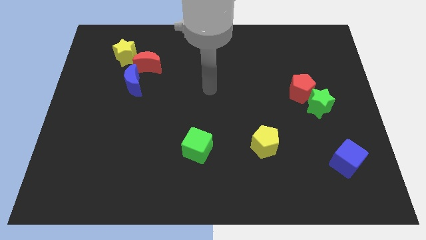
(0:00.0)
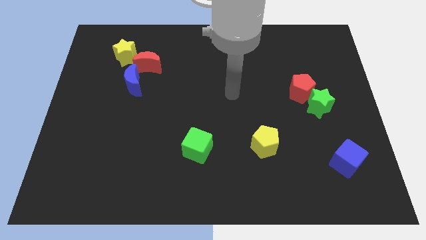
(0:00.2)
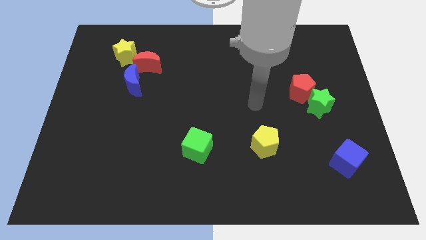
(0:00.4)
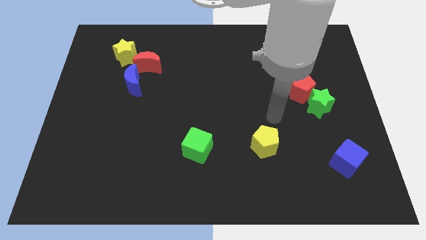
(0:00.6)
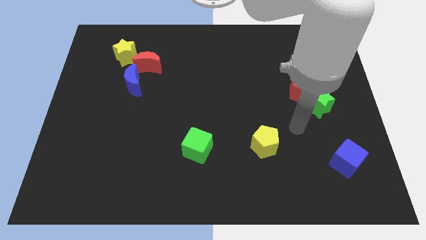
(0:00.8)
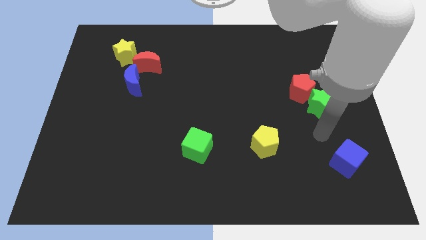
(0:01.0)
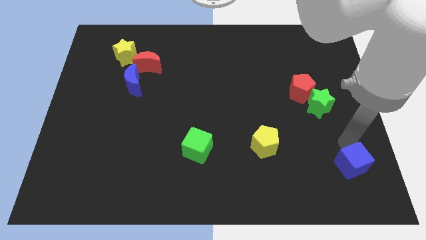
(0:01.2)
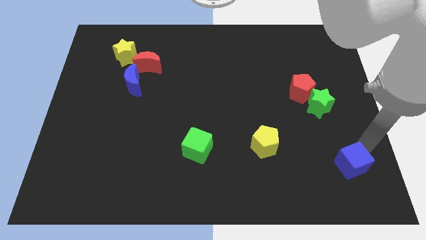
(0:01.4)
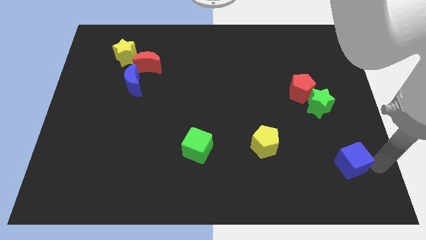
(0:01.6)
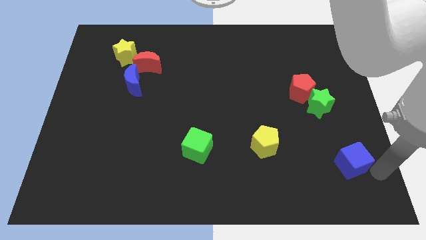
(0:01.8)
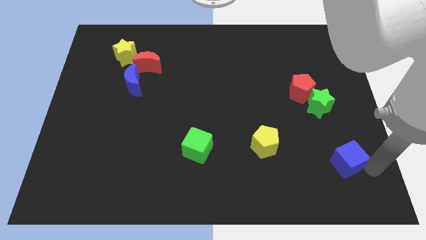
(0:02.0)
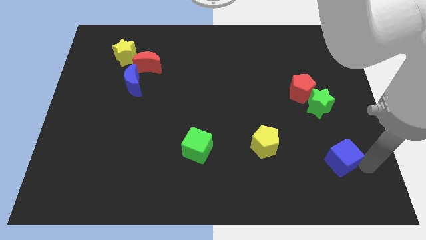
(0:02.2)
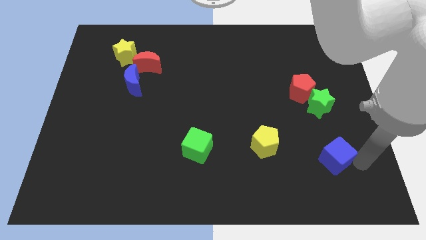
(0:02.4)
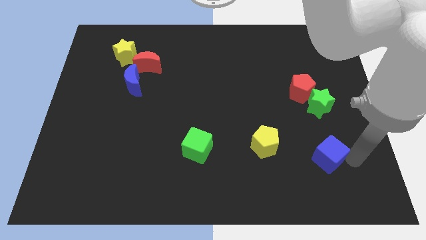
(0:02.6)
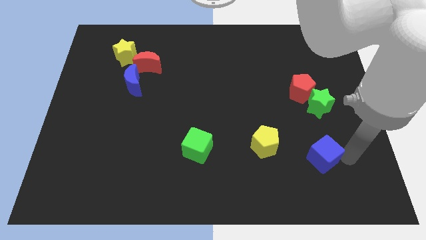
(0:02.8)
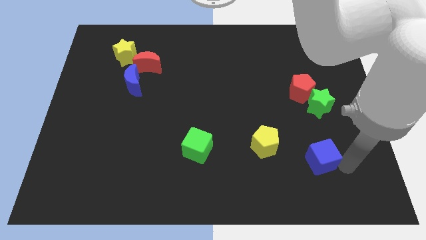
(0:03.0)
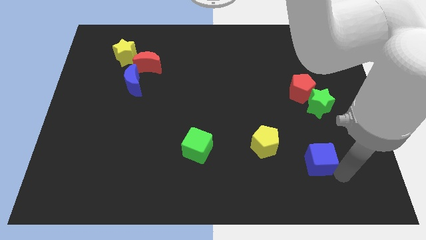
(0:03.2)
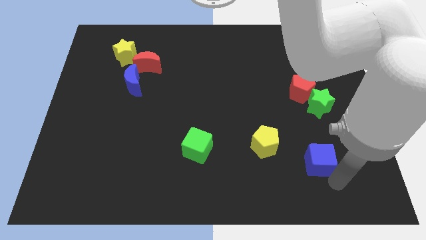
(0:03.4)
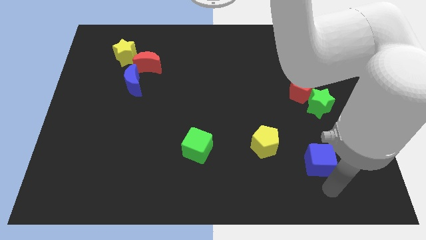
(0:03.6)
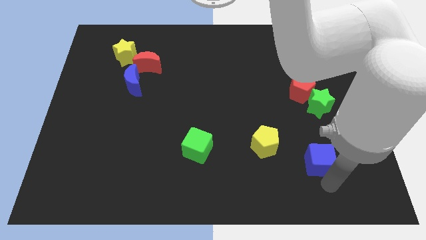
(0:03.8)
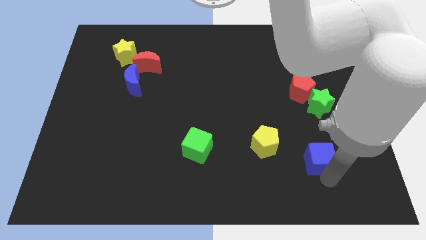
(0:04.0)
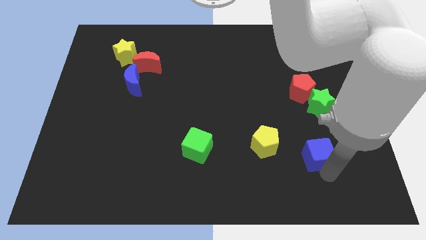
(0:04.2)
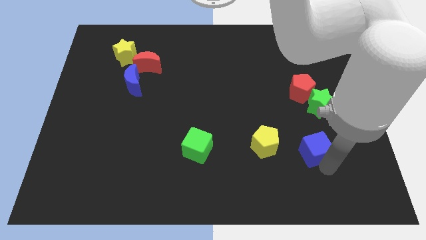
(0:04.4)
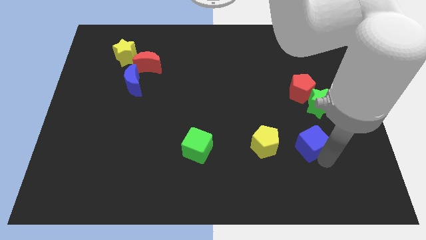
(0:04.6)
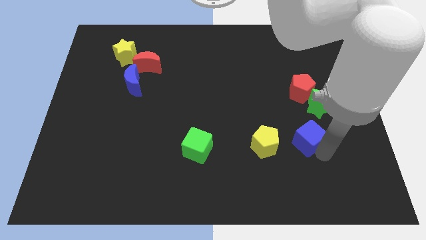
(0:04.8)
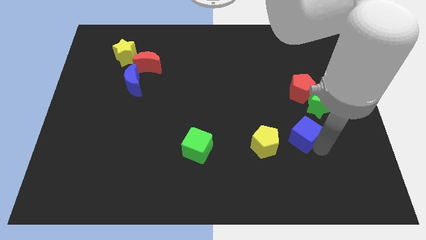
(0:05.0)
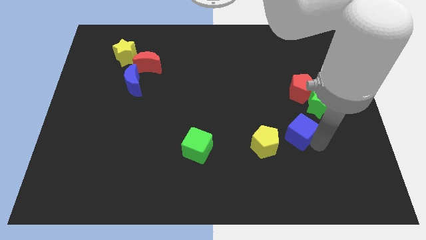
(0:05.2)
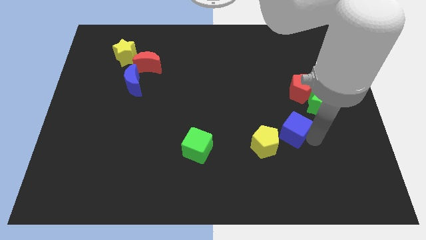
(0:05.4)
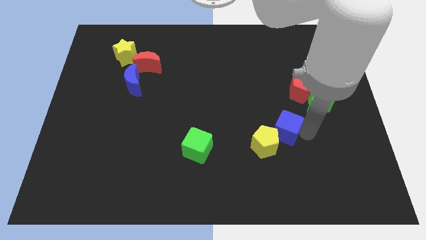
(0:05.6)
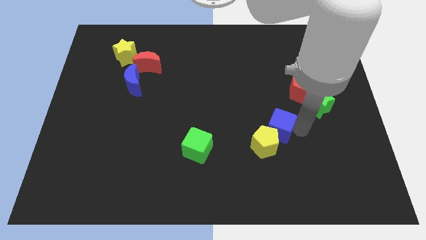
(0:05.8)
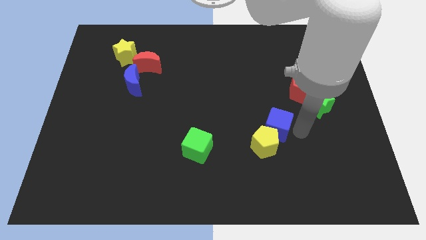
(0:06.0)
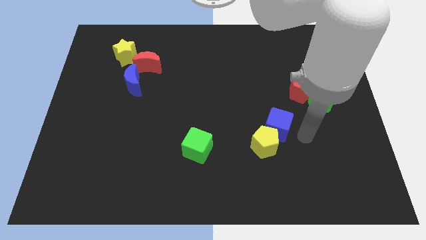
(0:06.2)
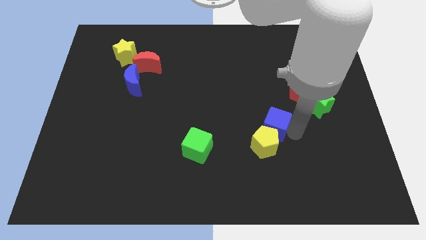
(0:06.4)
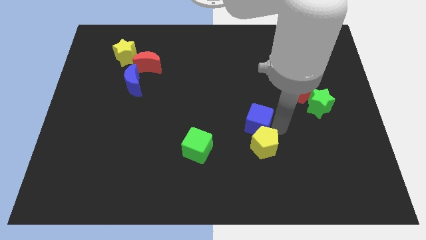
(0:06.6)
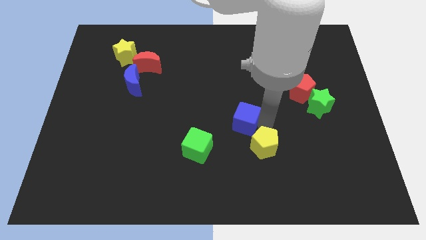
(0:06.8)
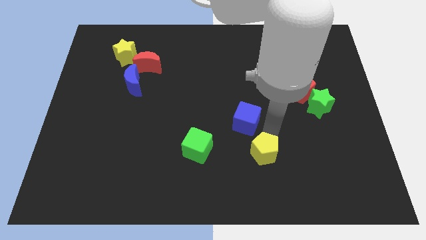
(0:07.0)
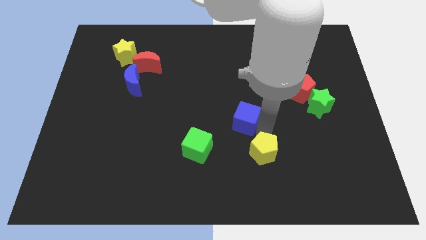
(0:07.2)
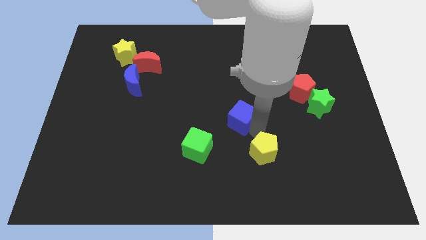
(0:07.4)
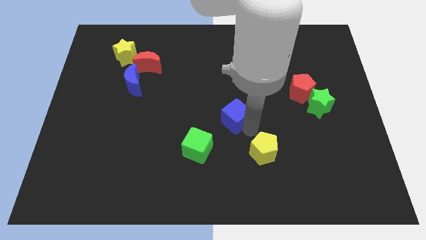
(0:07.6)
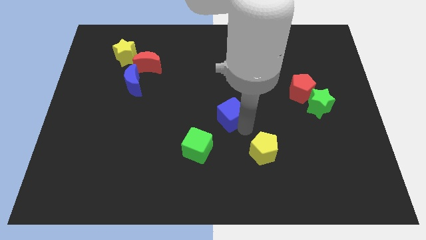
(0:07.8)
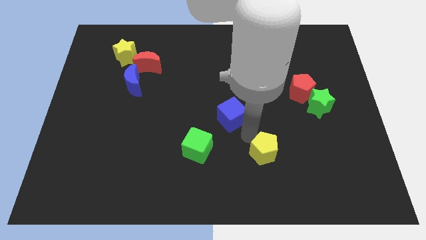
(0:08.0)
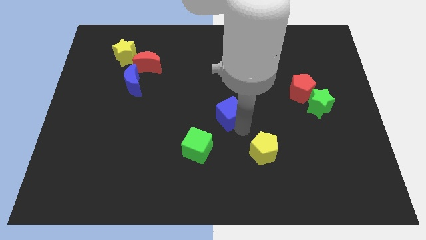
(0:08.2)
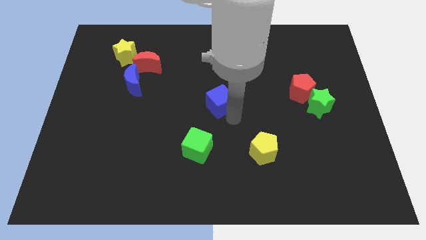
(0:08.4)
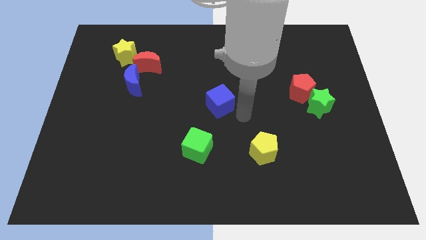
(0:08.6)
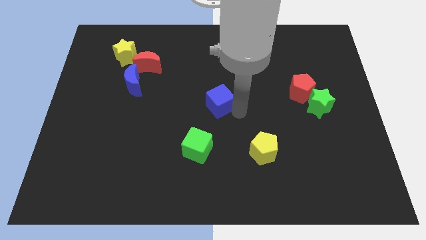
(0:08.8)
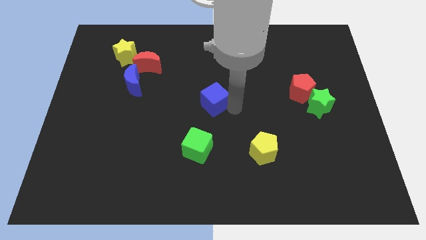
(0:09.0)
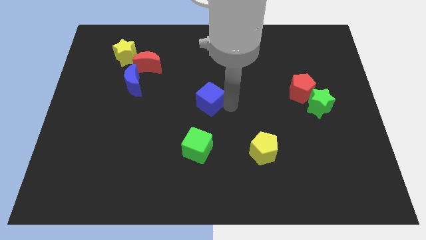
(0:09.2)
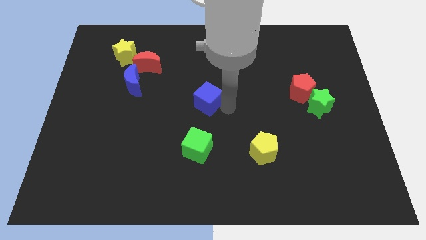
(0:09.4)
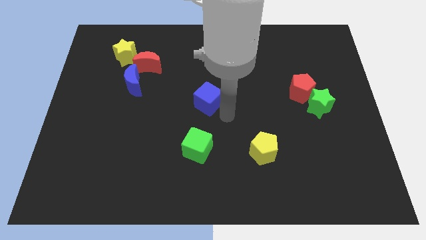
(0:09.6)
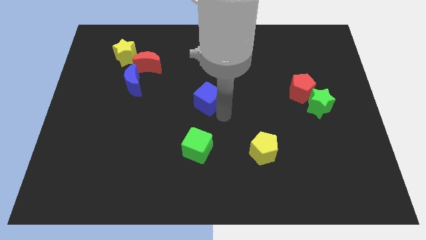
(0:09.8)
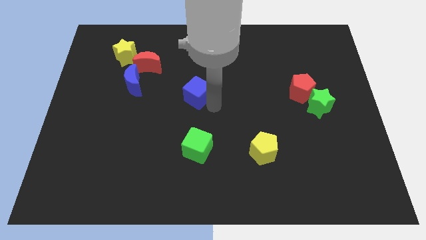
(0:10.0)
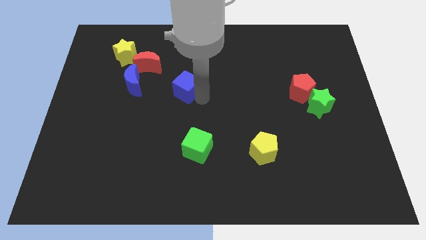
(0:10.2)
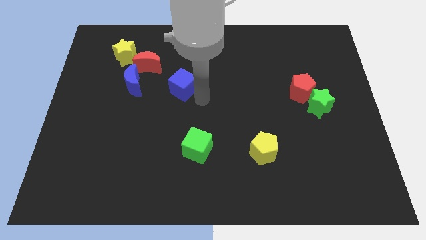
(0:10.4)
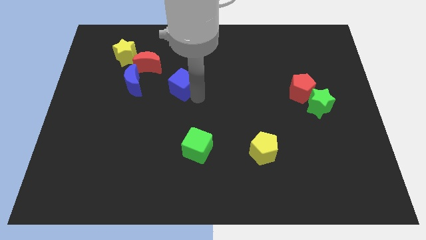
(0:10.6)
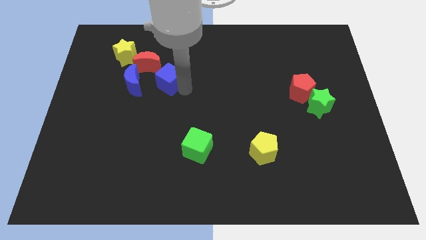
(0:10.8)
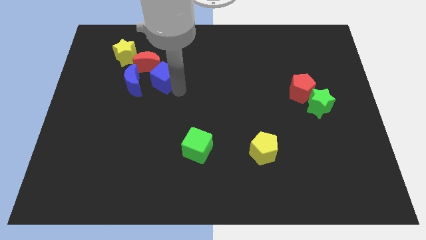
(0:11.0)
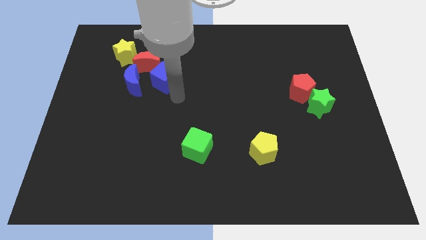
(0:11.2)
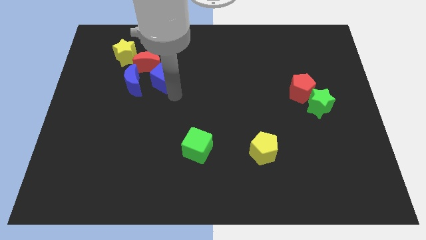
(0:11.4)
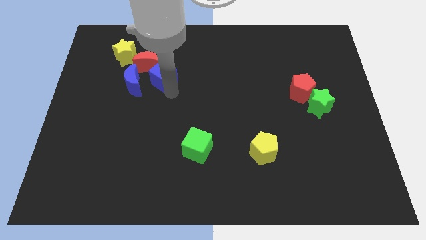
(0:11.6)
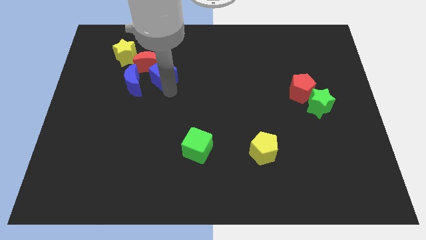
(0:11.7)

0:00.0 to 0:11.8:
slide the blue cube next to the red moon

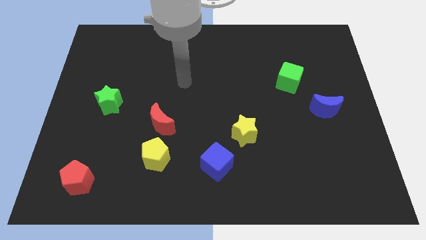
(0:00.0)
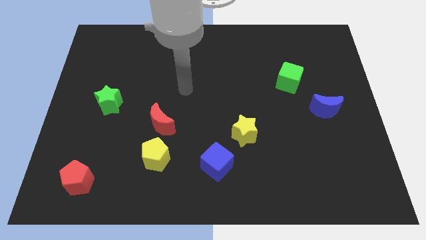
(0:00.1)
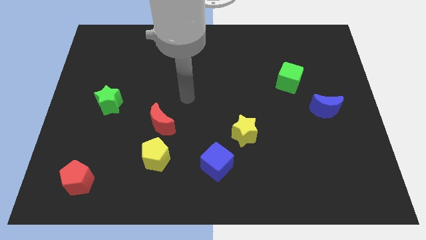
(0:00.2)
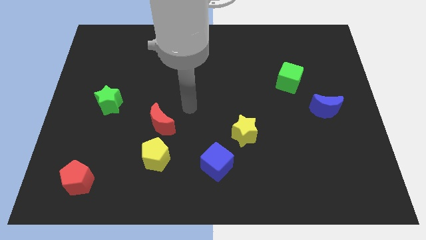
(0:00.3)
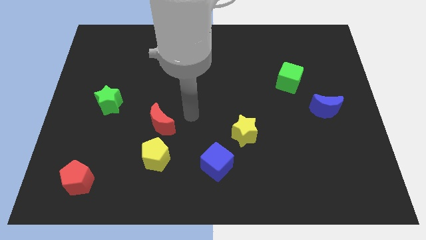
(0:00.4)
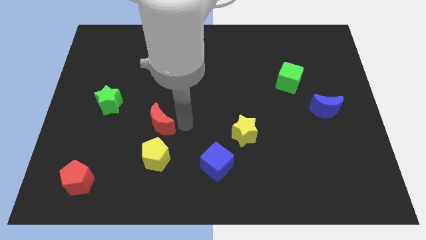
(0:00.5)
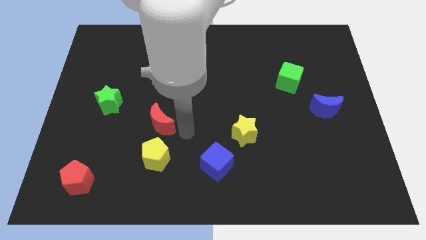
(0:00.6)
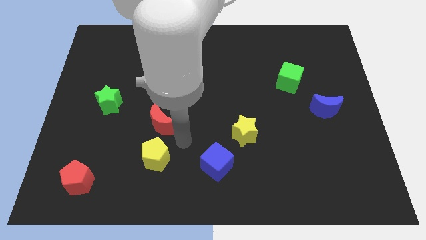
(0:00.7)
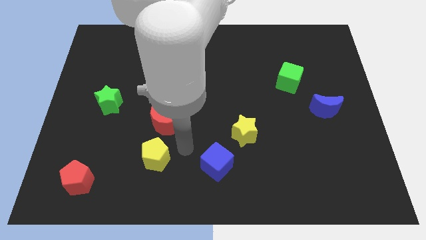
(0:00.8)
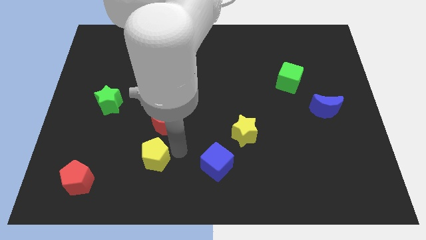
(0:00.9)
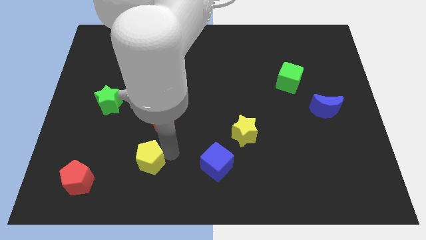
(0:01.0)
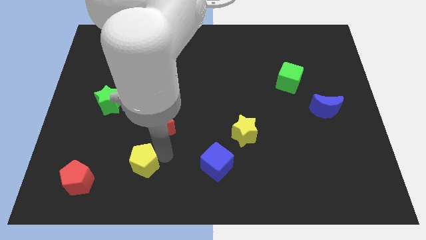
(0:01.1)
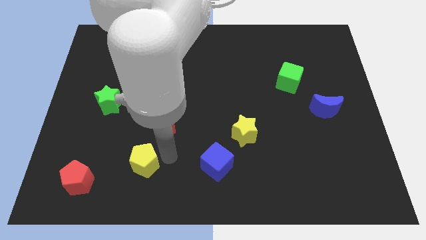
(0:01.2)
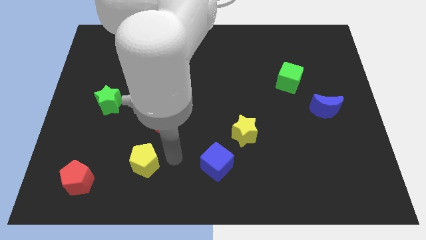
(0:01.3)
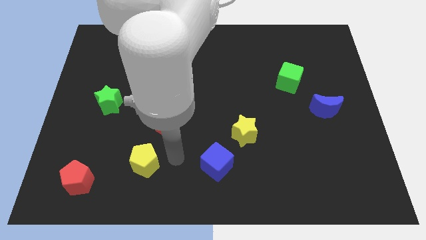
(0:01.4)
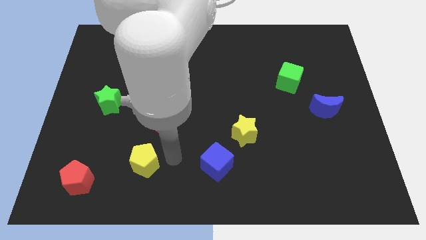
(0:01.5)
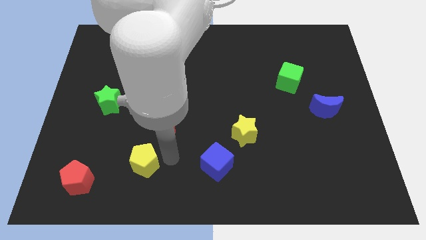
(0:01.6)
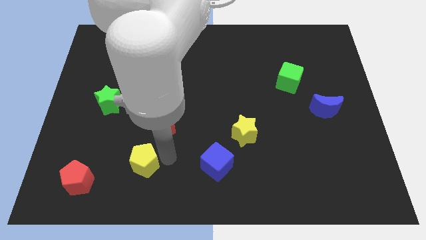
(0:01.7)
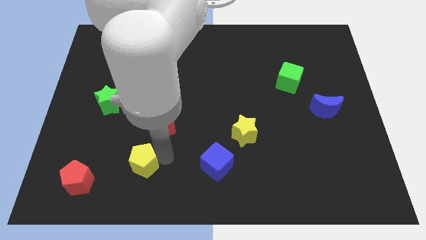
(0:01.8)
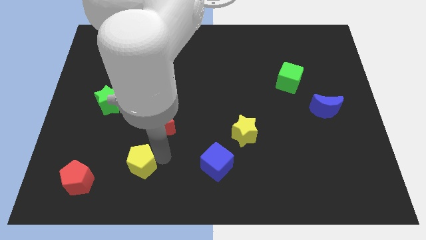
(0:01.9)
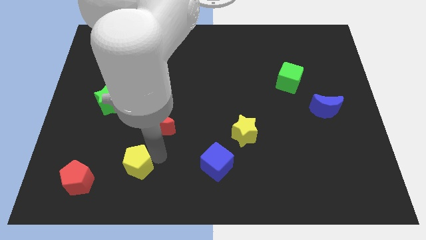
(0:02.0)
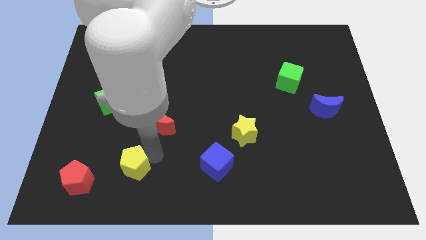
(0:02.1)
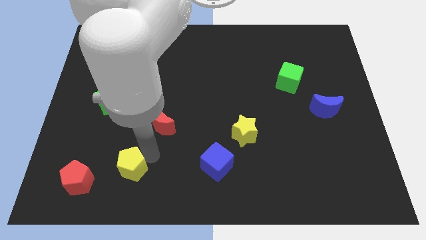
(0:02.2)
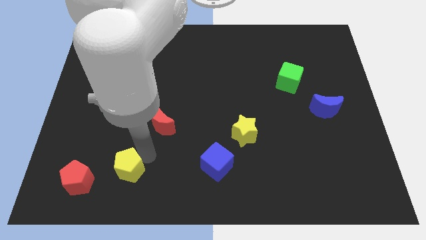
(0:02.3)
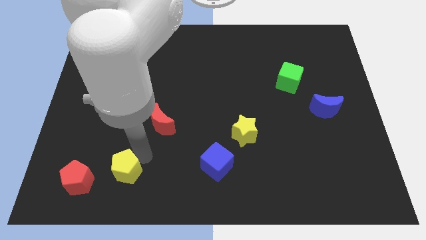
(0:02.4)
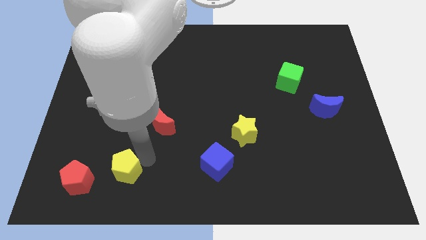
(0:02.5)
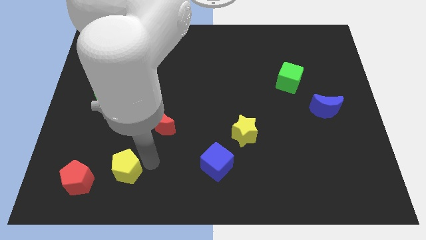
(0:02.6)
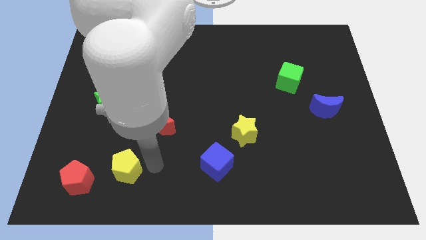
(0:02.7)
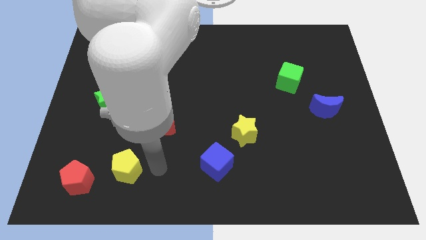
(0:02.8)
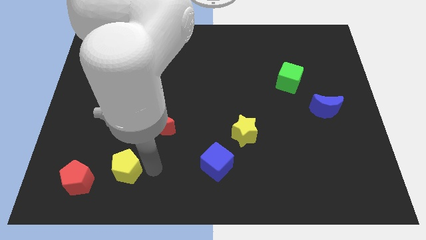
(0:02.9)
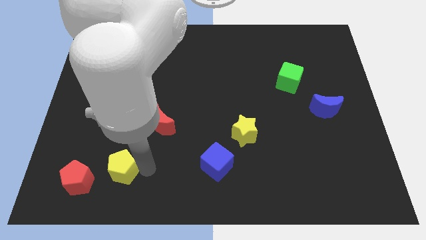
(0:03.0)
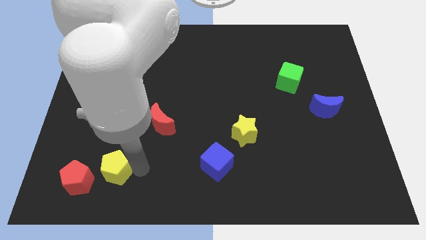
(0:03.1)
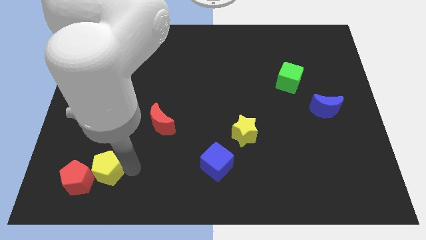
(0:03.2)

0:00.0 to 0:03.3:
push the yellow pentagon next to the red pentagon
